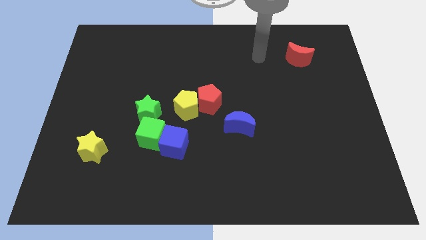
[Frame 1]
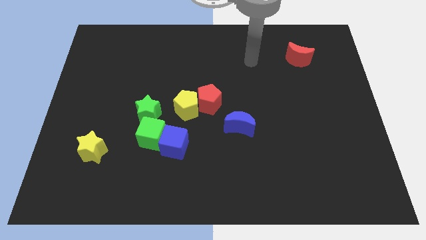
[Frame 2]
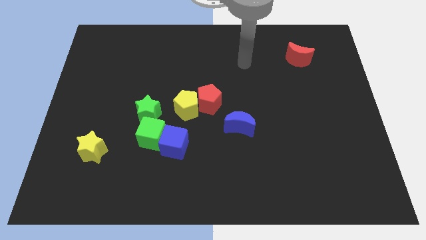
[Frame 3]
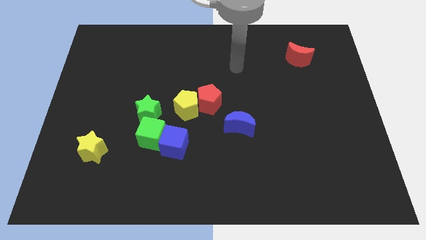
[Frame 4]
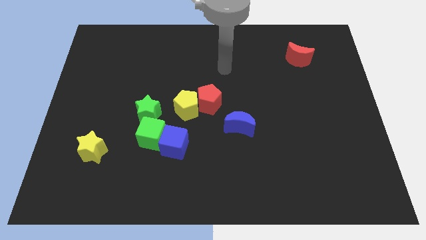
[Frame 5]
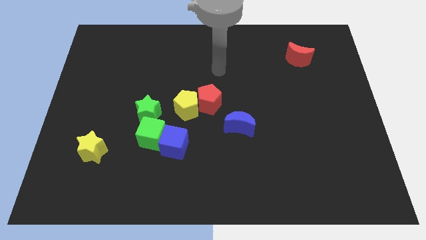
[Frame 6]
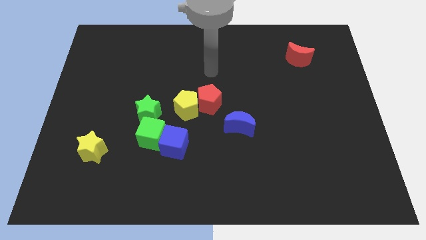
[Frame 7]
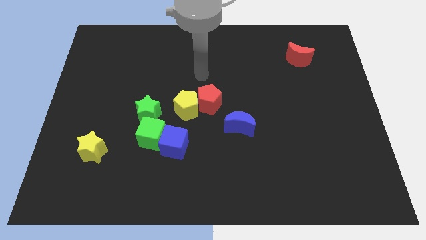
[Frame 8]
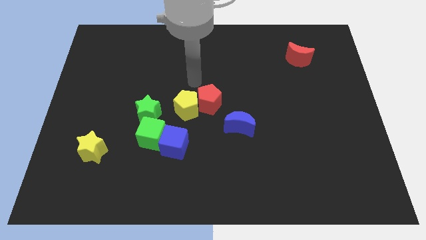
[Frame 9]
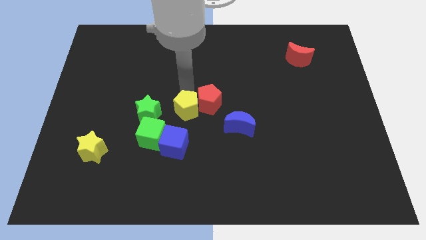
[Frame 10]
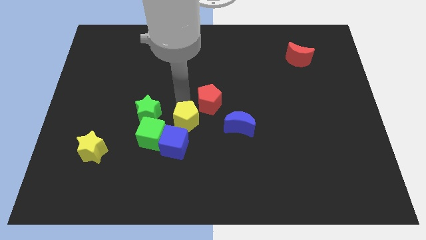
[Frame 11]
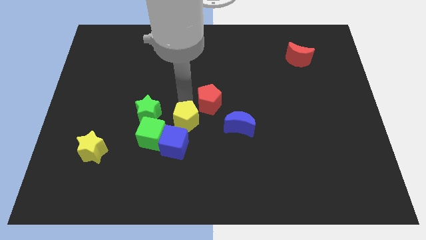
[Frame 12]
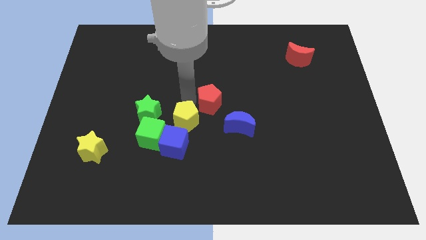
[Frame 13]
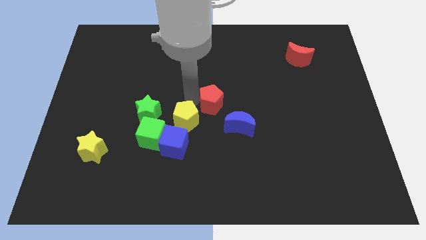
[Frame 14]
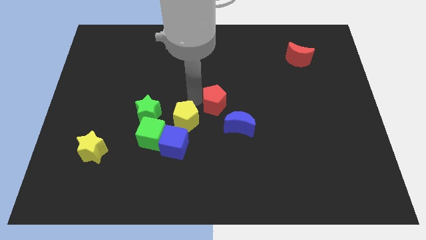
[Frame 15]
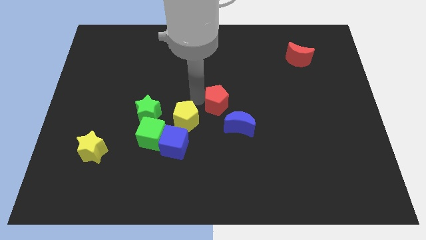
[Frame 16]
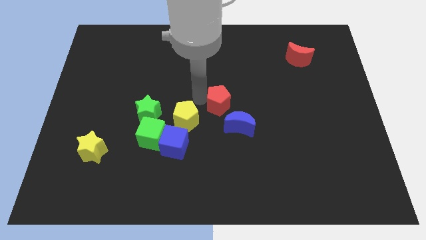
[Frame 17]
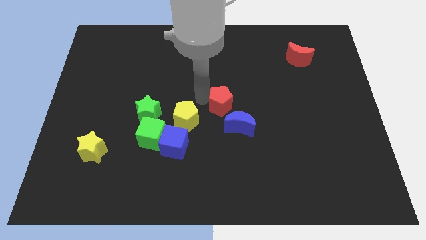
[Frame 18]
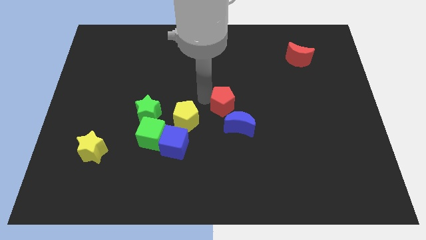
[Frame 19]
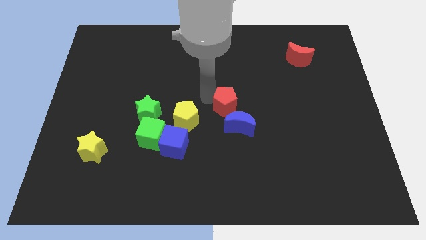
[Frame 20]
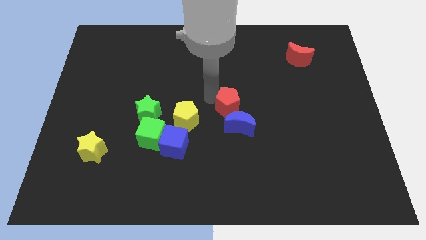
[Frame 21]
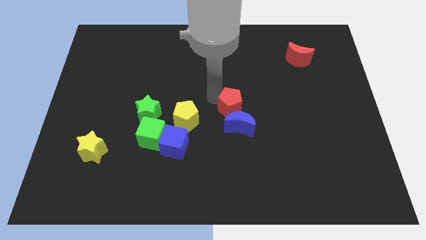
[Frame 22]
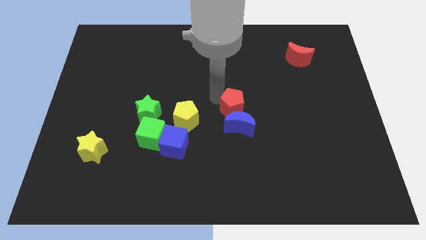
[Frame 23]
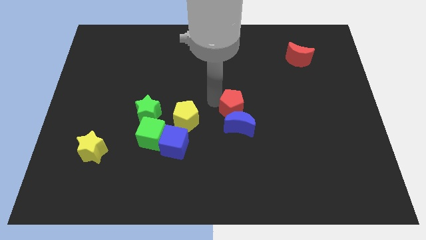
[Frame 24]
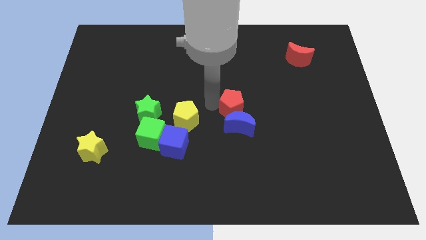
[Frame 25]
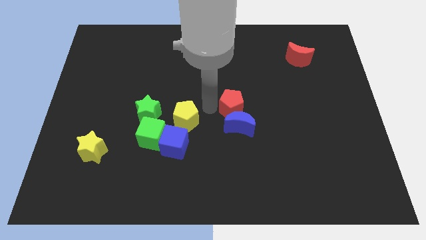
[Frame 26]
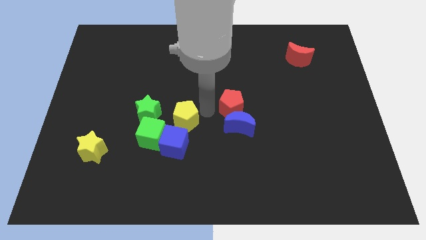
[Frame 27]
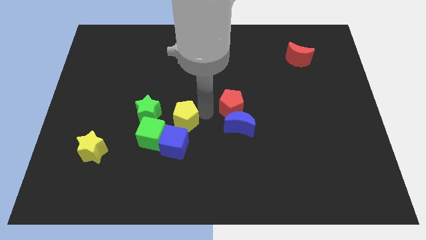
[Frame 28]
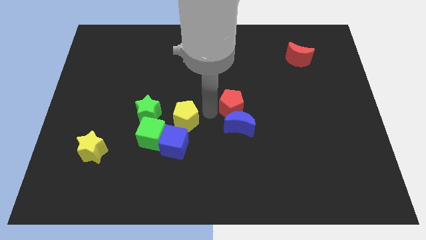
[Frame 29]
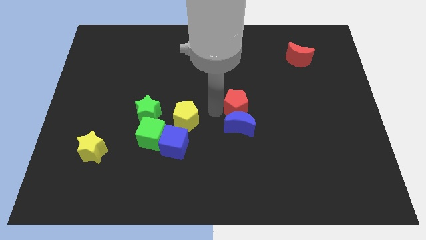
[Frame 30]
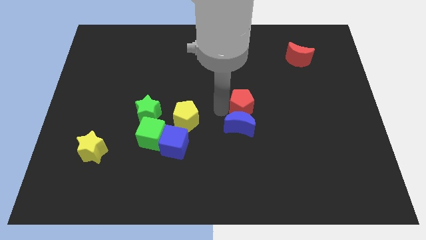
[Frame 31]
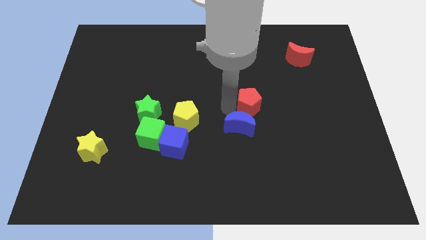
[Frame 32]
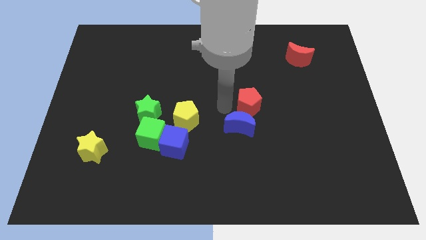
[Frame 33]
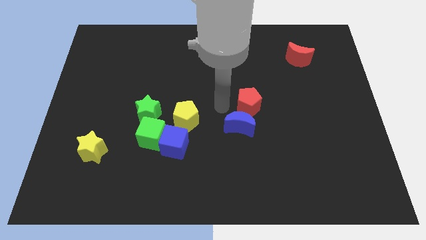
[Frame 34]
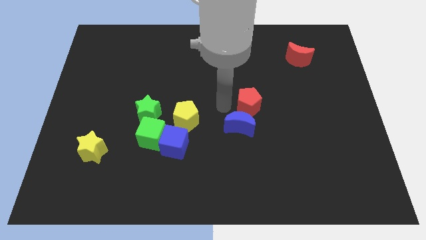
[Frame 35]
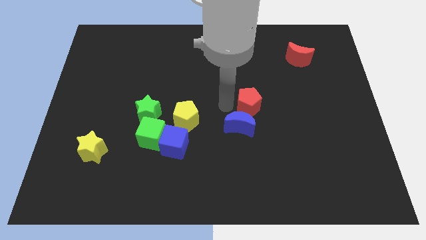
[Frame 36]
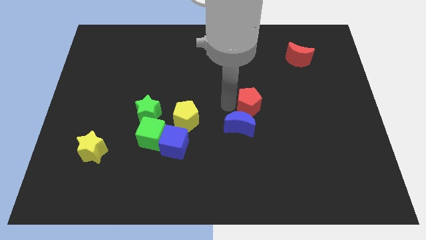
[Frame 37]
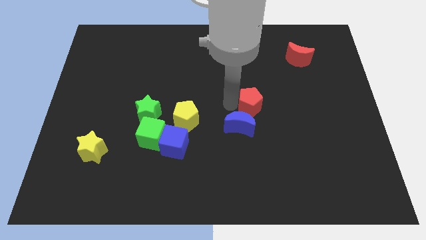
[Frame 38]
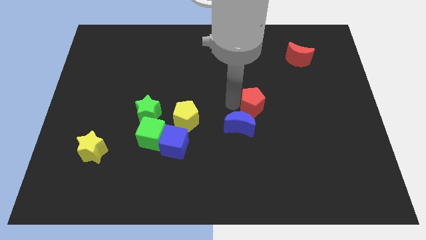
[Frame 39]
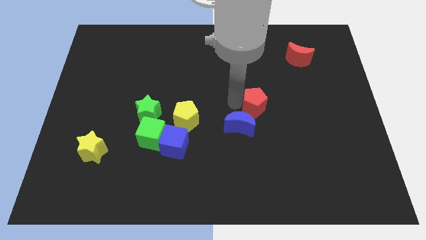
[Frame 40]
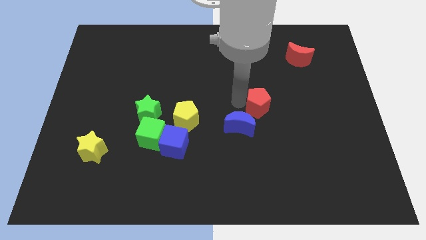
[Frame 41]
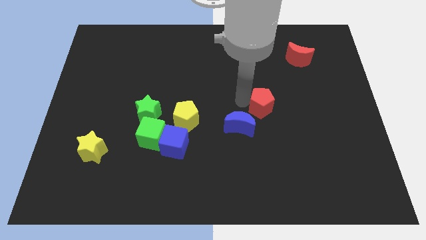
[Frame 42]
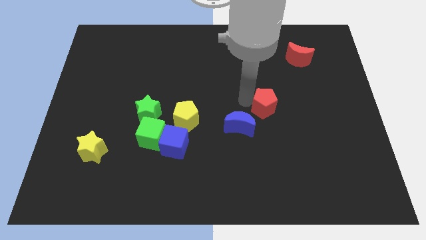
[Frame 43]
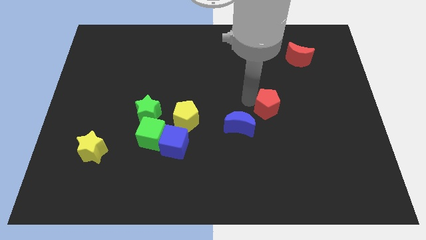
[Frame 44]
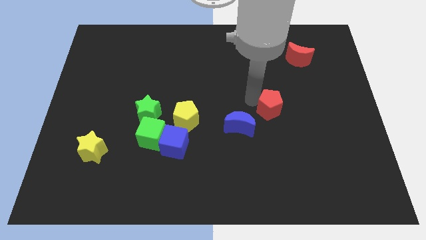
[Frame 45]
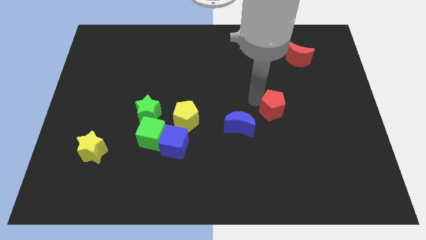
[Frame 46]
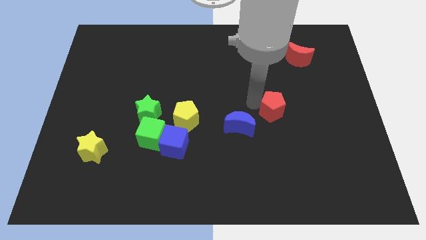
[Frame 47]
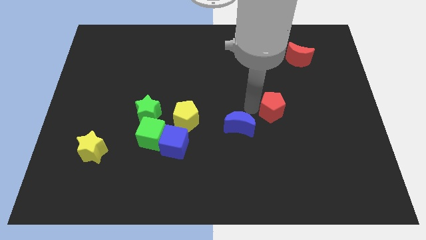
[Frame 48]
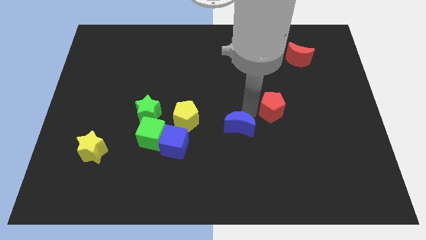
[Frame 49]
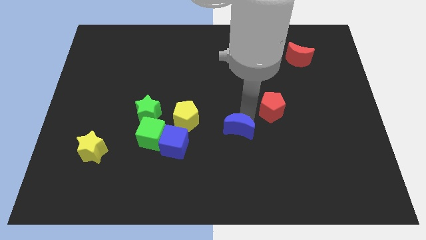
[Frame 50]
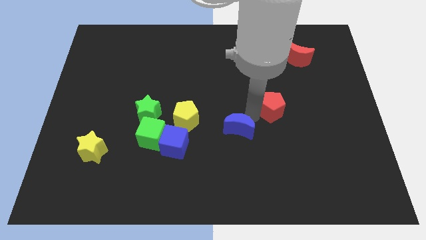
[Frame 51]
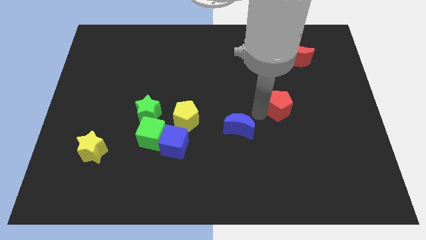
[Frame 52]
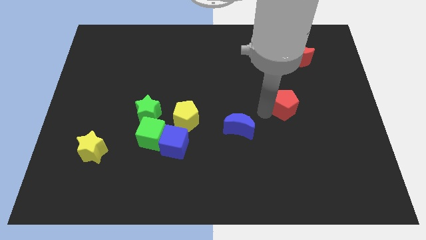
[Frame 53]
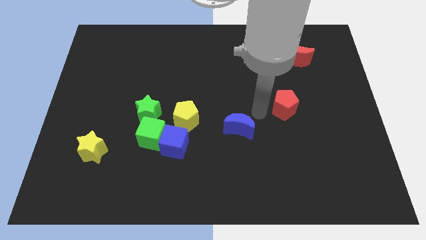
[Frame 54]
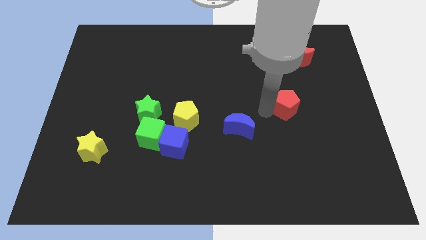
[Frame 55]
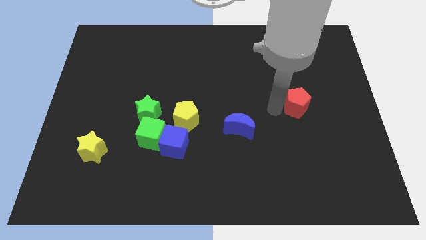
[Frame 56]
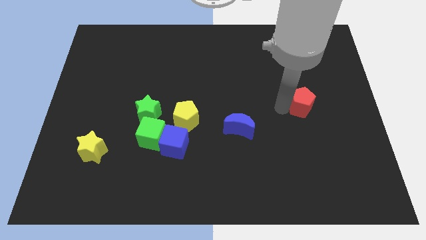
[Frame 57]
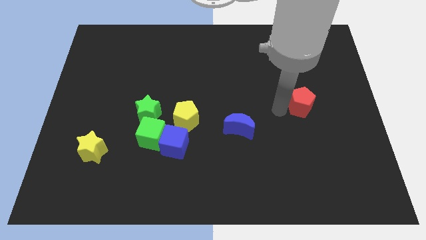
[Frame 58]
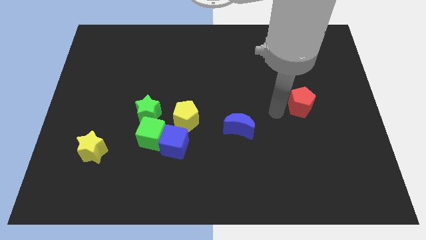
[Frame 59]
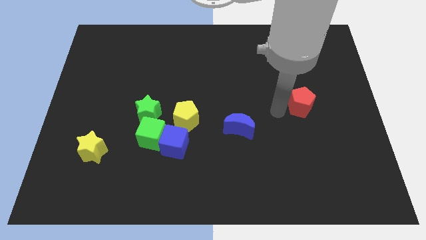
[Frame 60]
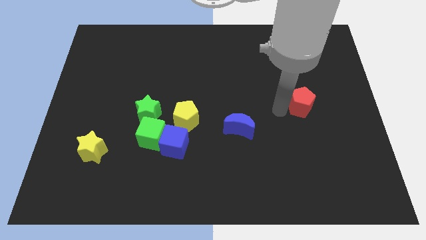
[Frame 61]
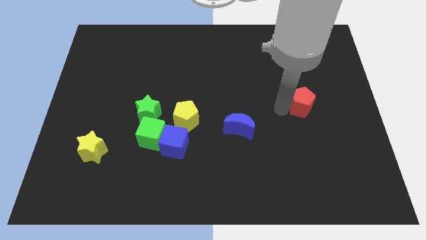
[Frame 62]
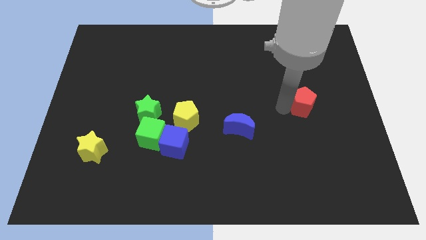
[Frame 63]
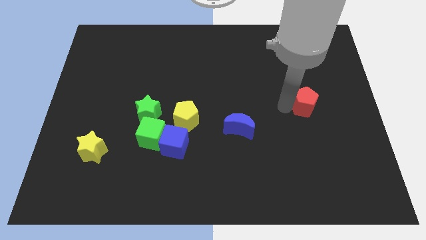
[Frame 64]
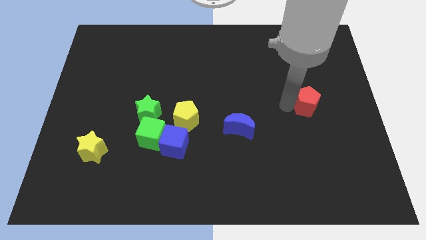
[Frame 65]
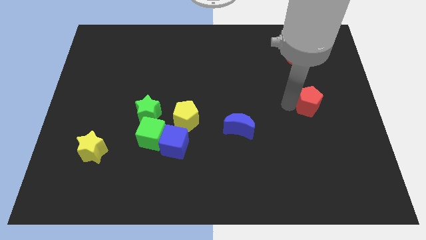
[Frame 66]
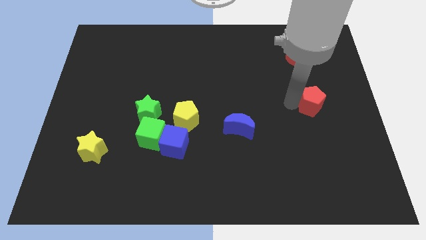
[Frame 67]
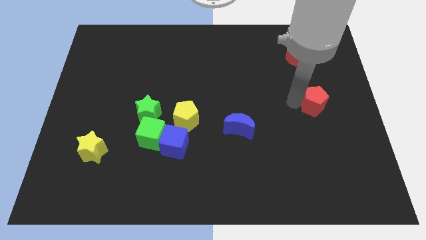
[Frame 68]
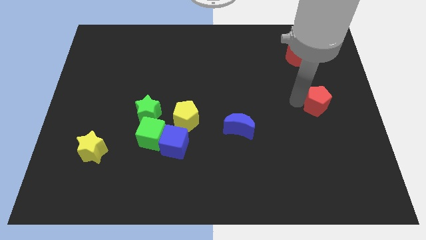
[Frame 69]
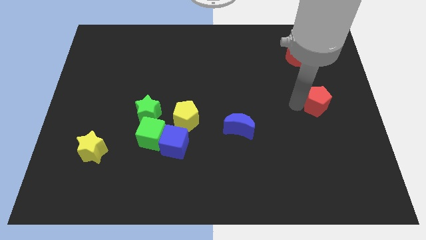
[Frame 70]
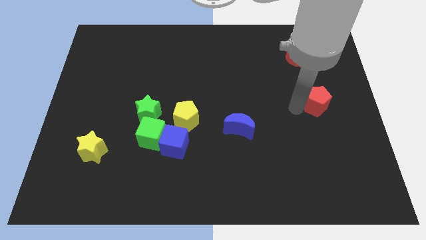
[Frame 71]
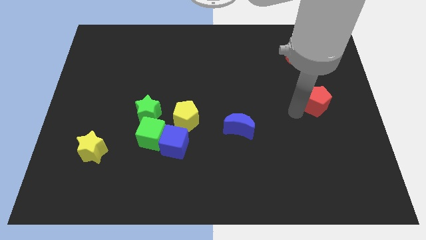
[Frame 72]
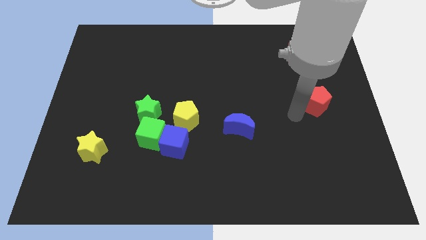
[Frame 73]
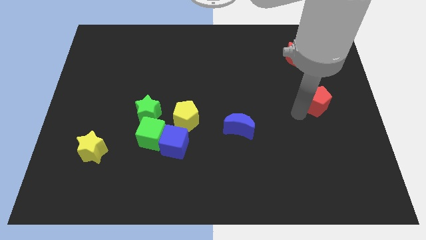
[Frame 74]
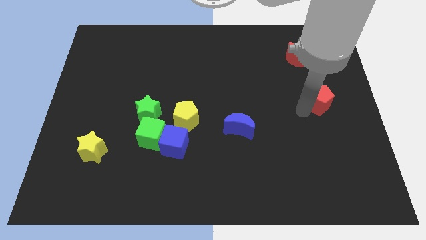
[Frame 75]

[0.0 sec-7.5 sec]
push the red pentagon to the right side of the board
